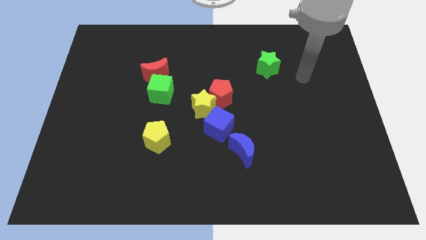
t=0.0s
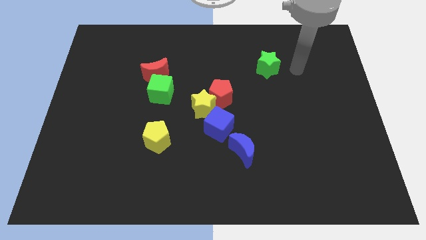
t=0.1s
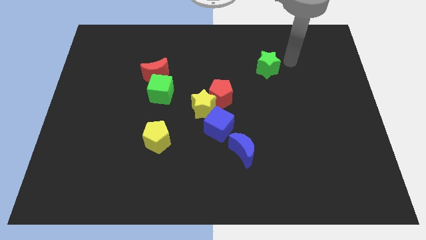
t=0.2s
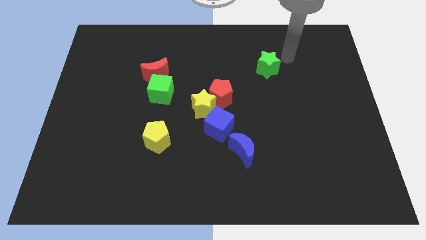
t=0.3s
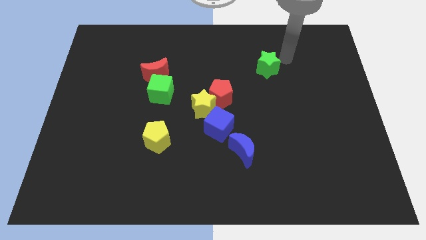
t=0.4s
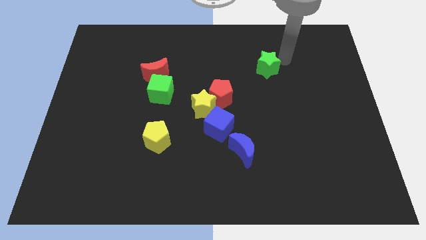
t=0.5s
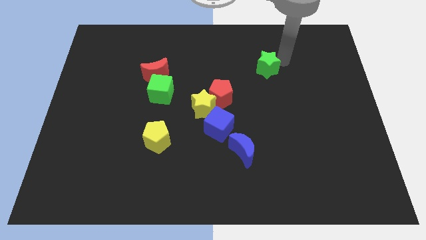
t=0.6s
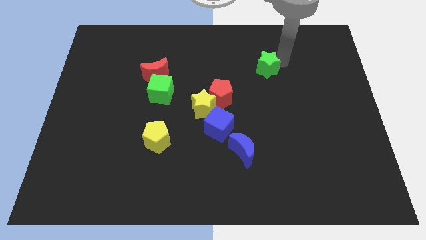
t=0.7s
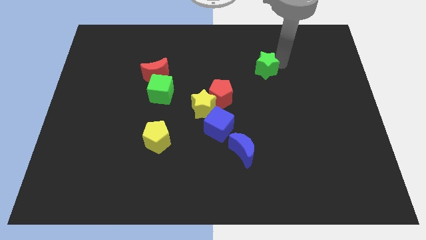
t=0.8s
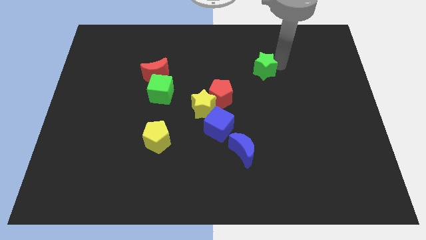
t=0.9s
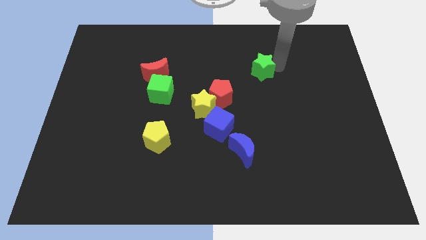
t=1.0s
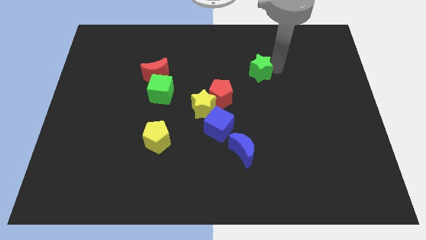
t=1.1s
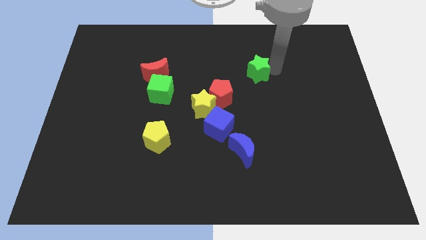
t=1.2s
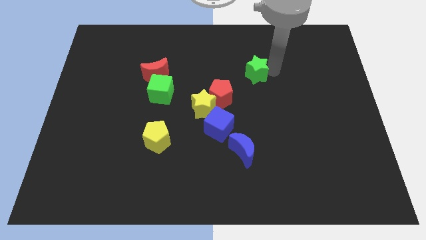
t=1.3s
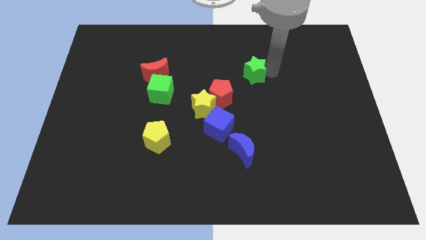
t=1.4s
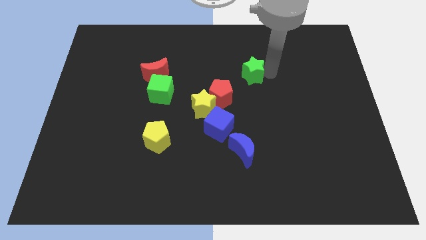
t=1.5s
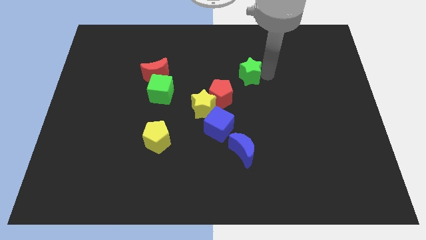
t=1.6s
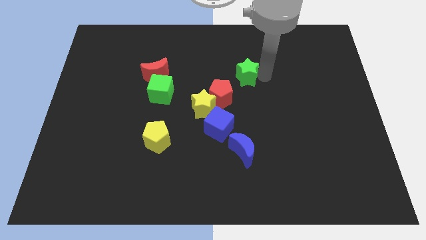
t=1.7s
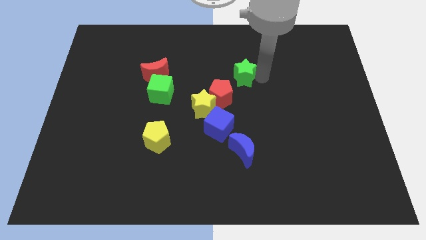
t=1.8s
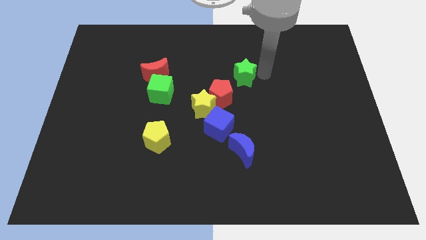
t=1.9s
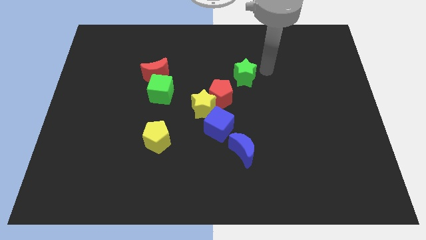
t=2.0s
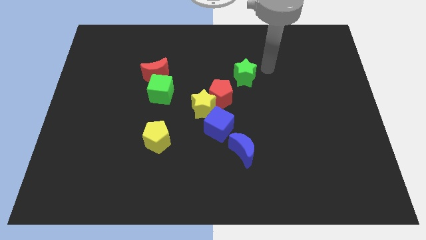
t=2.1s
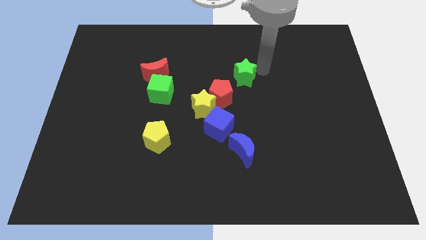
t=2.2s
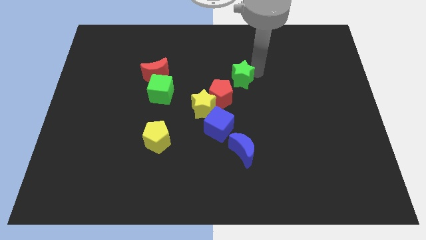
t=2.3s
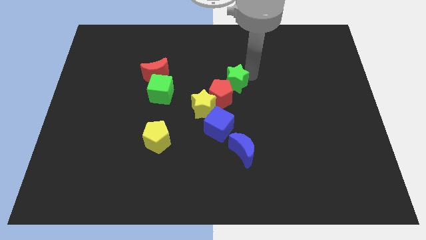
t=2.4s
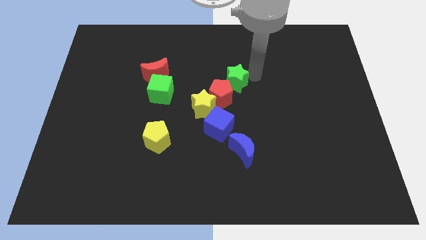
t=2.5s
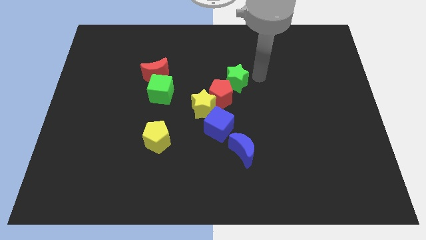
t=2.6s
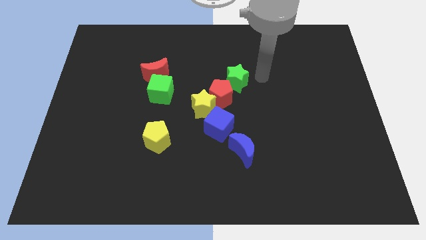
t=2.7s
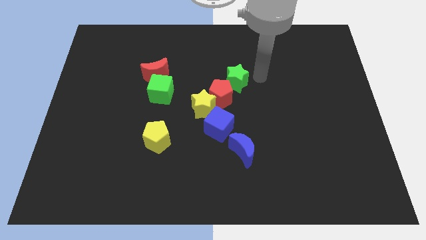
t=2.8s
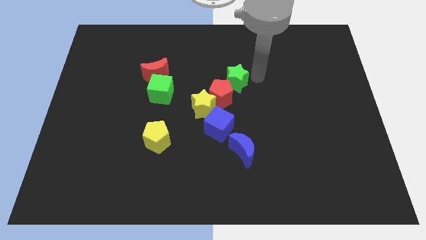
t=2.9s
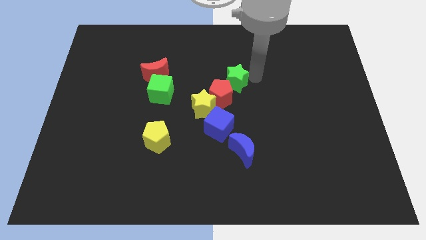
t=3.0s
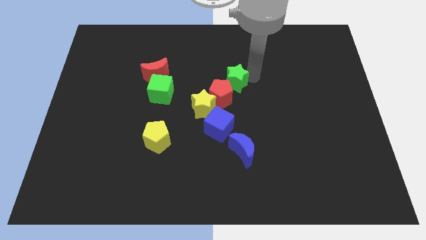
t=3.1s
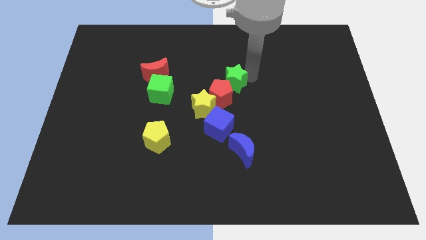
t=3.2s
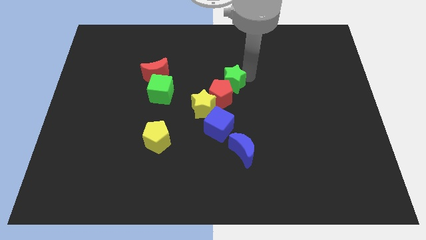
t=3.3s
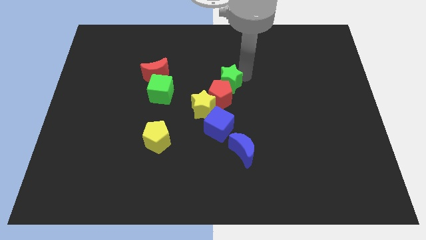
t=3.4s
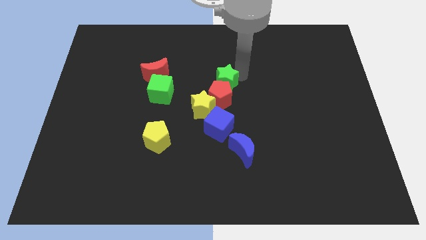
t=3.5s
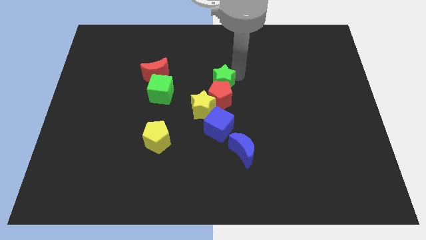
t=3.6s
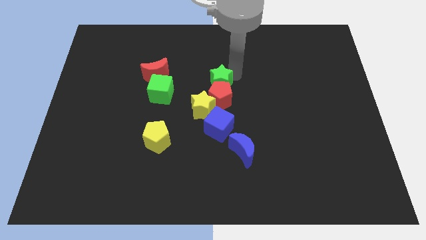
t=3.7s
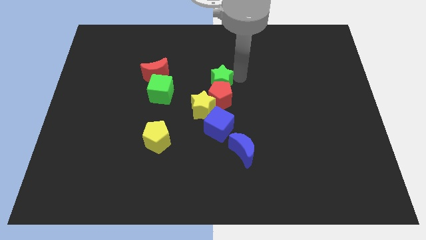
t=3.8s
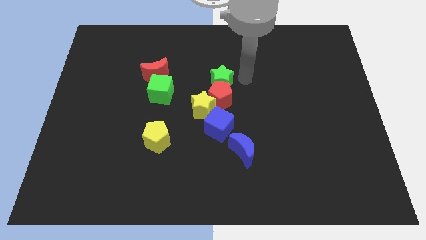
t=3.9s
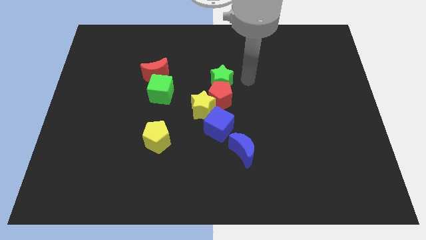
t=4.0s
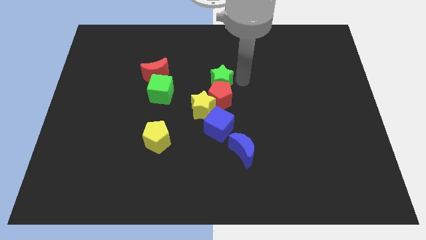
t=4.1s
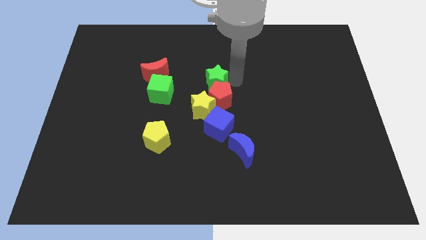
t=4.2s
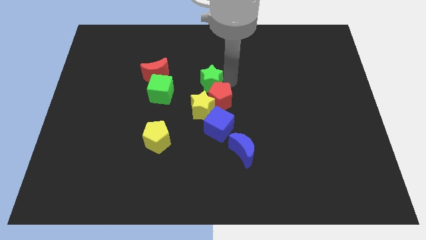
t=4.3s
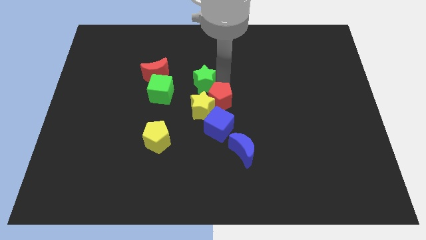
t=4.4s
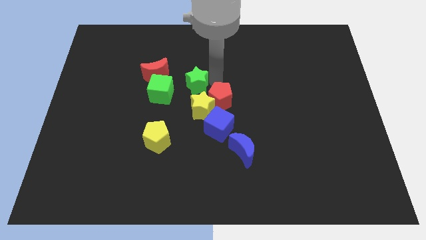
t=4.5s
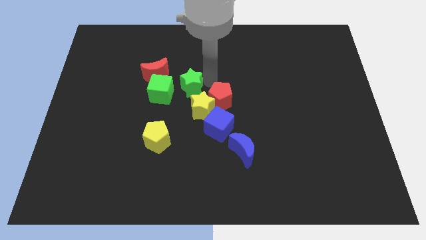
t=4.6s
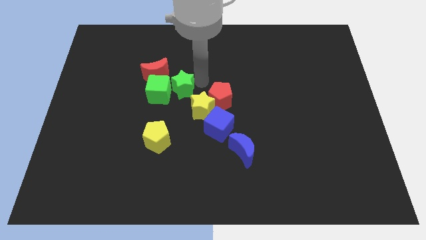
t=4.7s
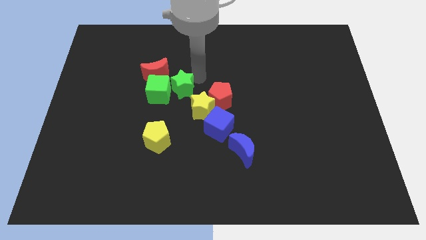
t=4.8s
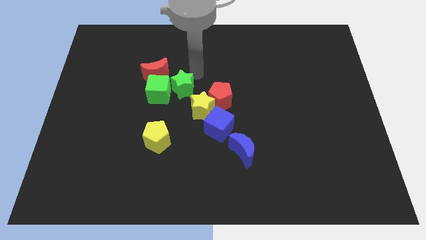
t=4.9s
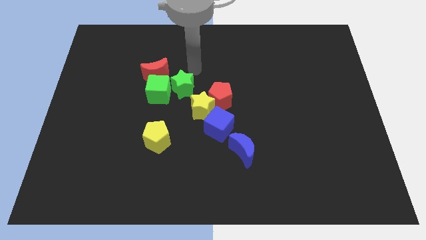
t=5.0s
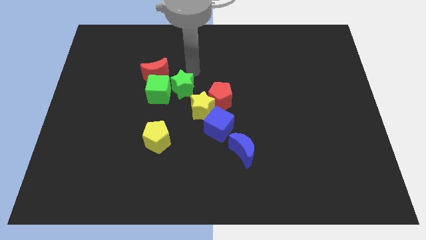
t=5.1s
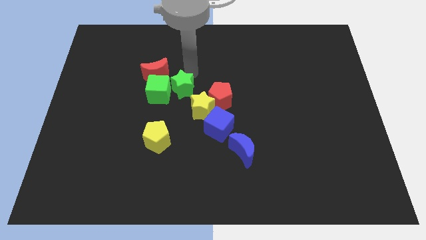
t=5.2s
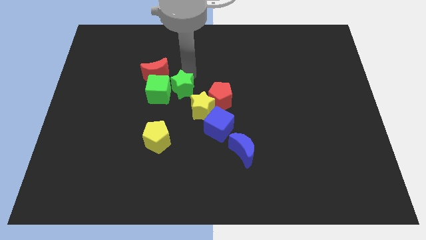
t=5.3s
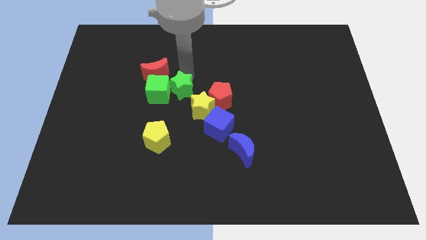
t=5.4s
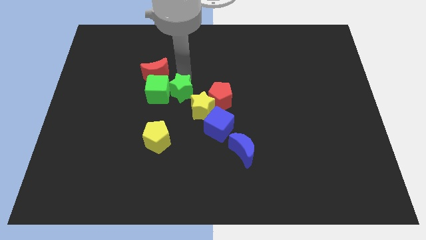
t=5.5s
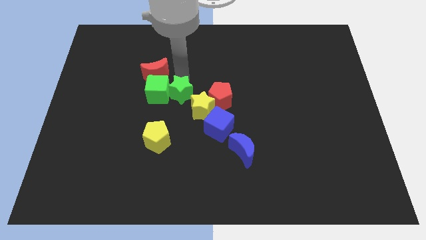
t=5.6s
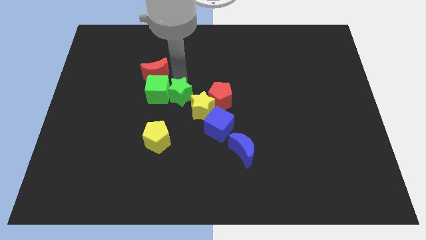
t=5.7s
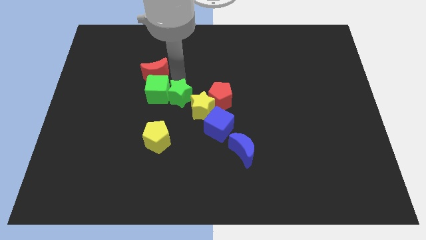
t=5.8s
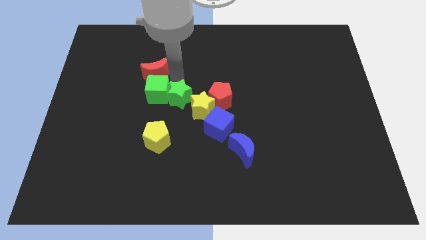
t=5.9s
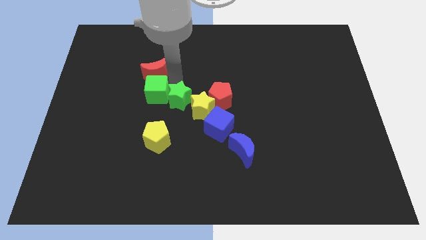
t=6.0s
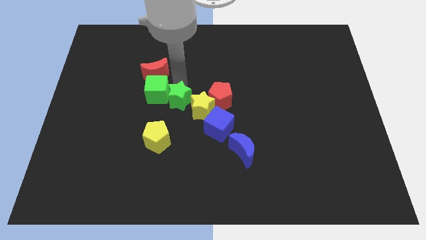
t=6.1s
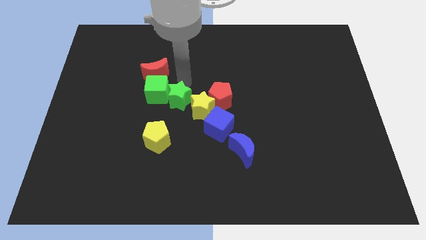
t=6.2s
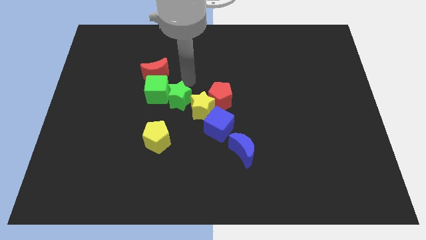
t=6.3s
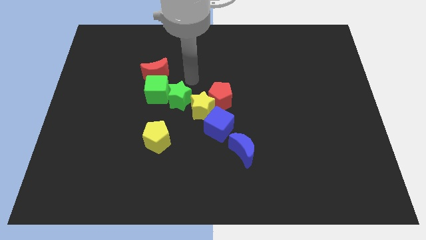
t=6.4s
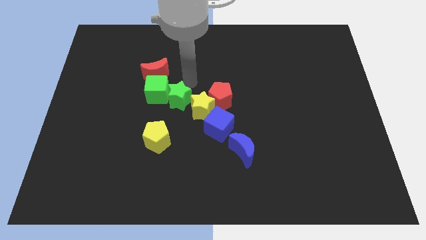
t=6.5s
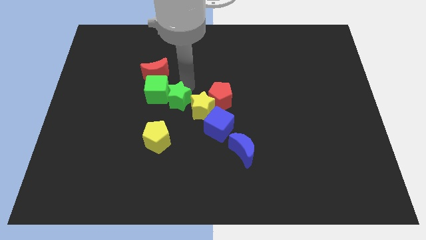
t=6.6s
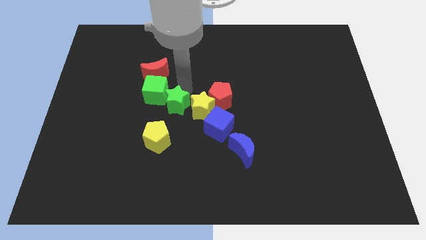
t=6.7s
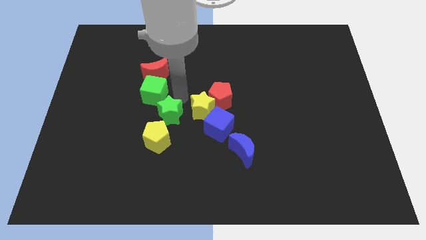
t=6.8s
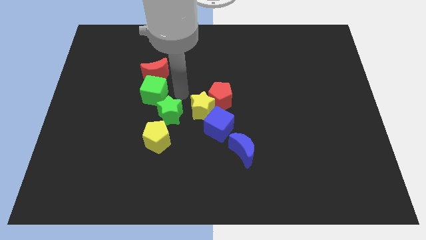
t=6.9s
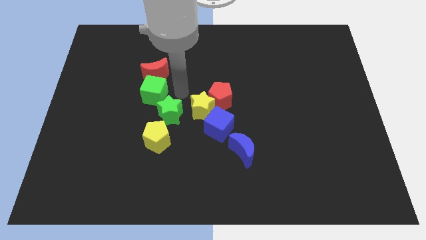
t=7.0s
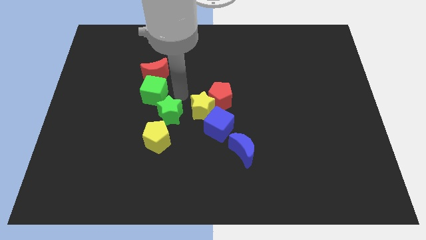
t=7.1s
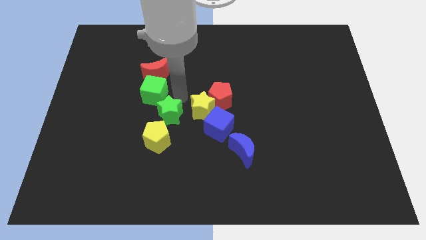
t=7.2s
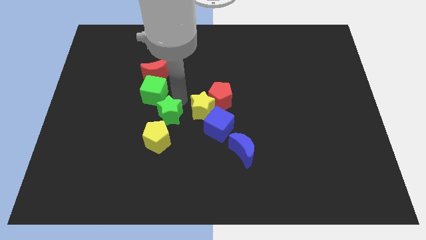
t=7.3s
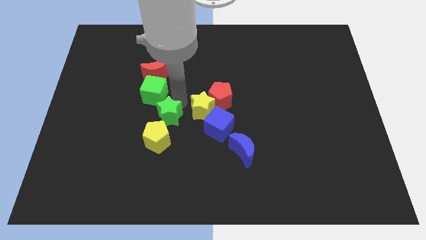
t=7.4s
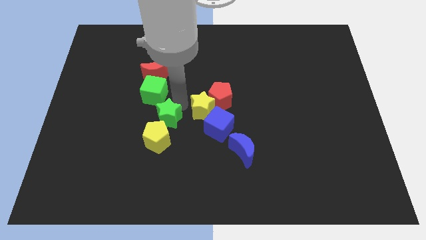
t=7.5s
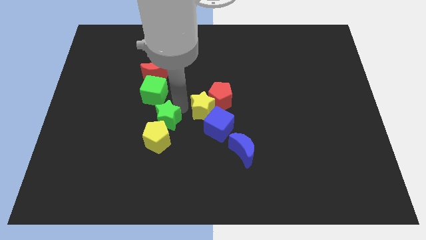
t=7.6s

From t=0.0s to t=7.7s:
push the green star next to the yellow pentagon
